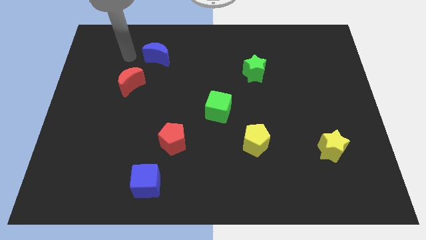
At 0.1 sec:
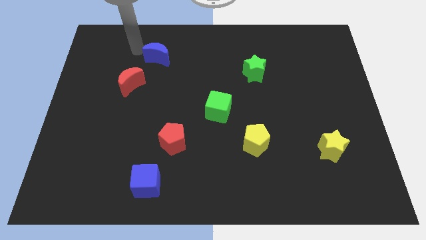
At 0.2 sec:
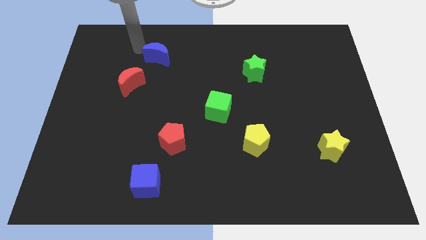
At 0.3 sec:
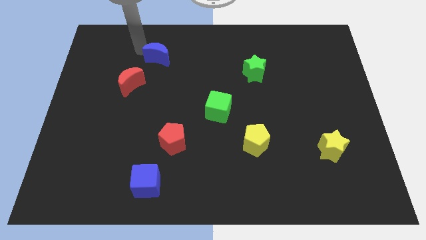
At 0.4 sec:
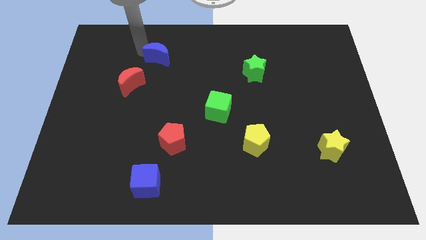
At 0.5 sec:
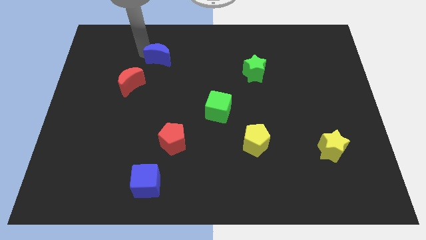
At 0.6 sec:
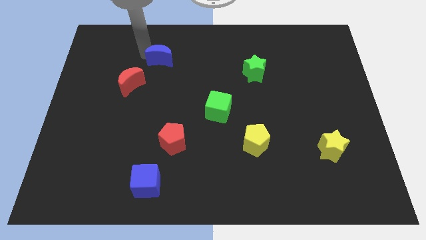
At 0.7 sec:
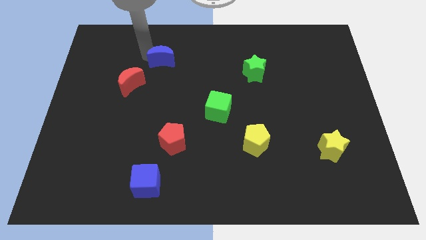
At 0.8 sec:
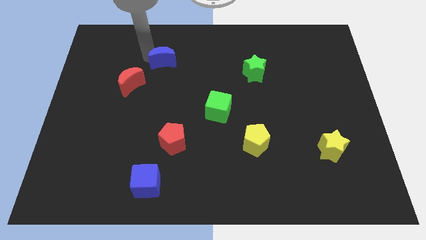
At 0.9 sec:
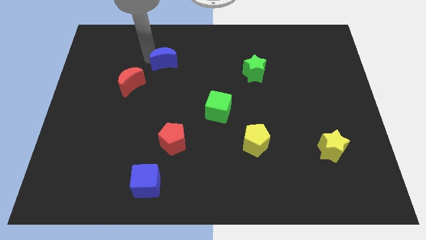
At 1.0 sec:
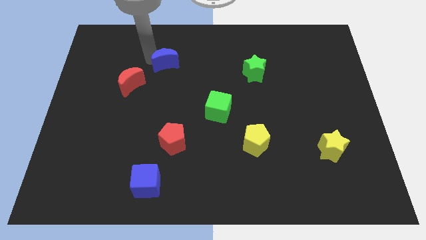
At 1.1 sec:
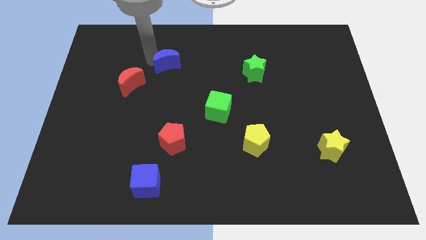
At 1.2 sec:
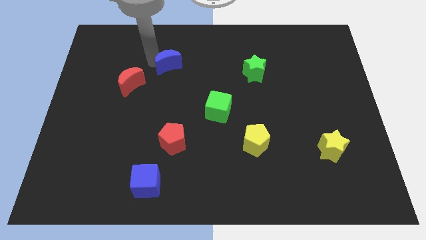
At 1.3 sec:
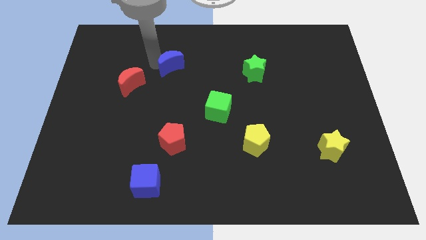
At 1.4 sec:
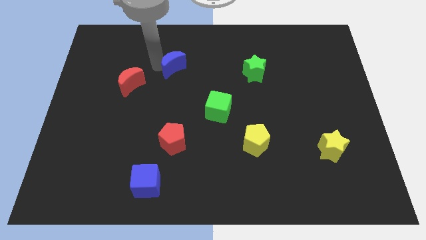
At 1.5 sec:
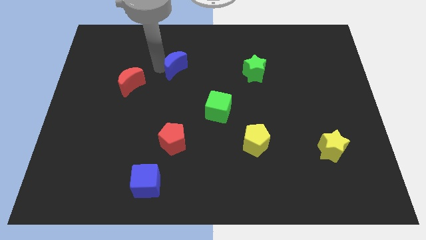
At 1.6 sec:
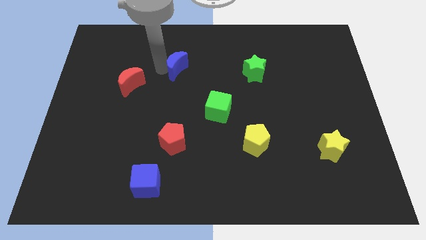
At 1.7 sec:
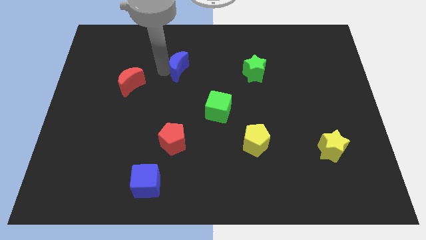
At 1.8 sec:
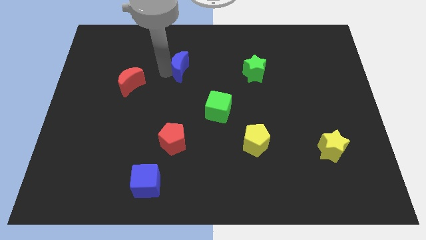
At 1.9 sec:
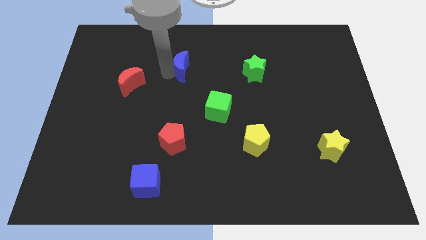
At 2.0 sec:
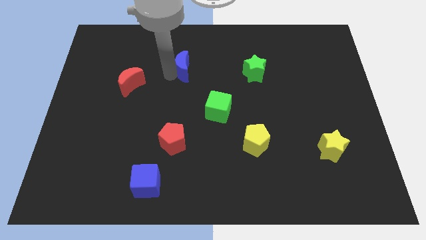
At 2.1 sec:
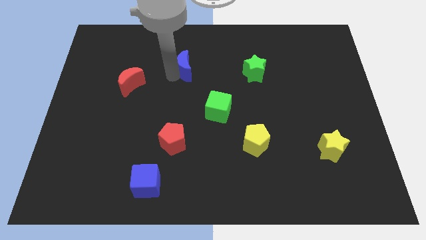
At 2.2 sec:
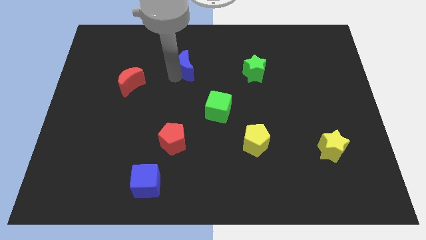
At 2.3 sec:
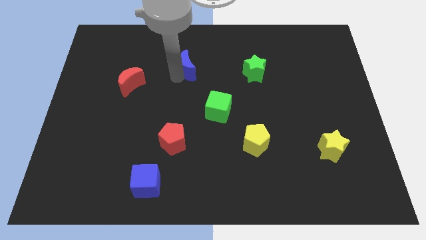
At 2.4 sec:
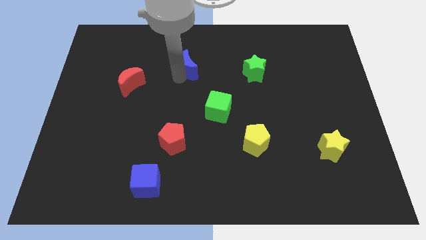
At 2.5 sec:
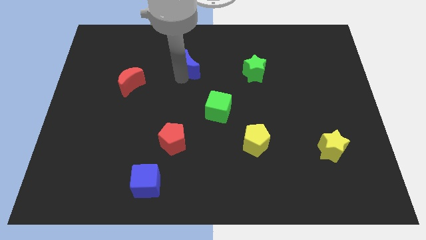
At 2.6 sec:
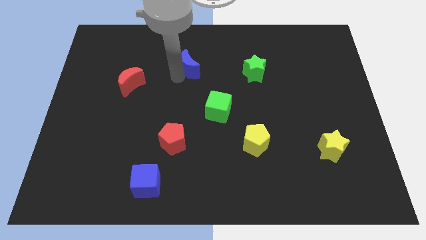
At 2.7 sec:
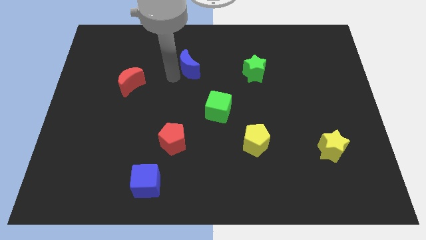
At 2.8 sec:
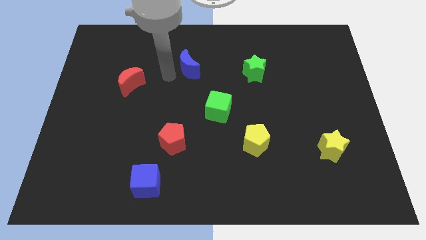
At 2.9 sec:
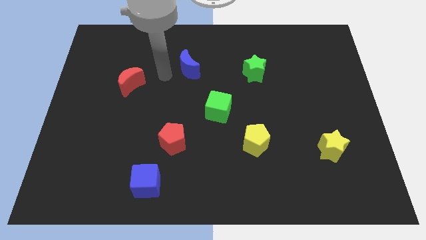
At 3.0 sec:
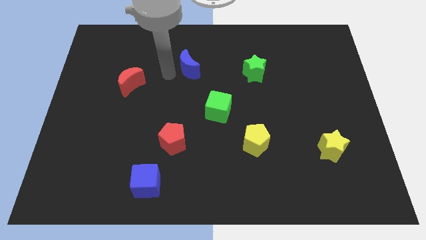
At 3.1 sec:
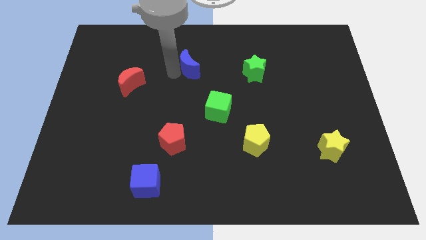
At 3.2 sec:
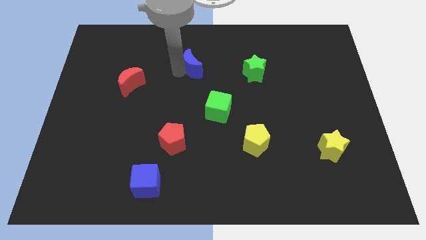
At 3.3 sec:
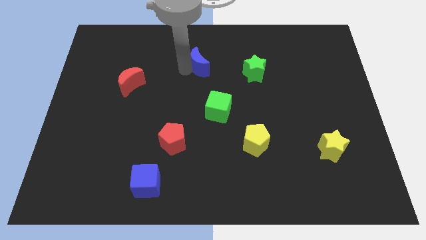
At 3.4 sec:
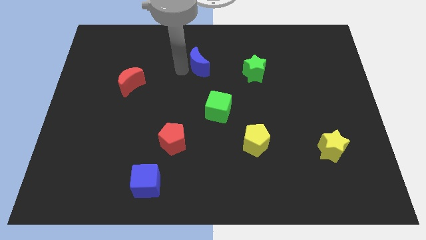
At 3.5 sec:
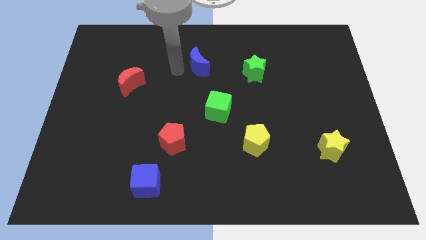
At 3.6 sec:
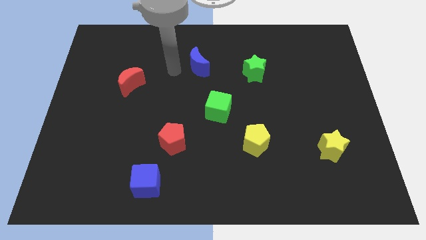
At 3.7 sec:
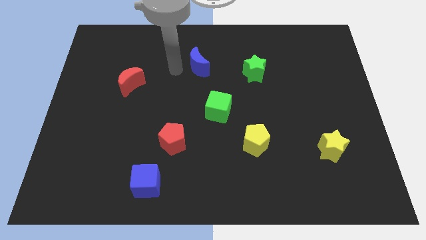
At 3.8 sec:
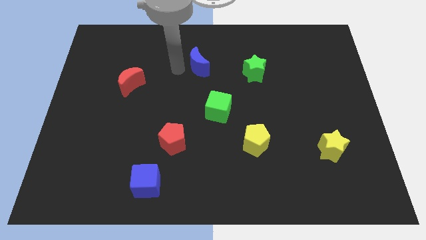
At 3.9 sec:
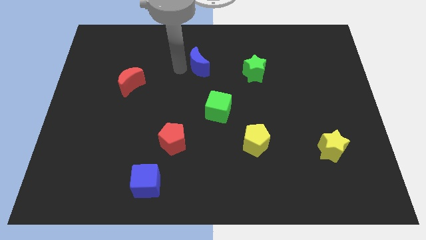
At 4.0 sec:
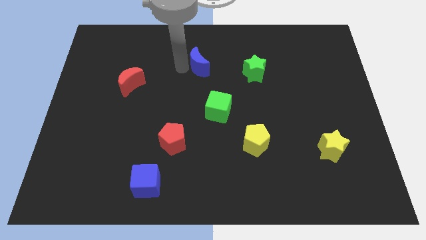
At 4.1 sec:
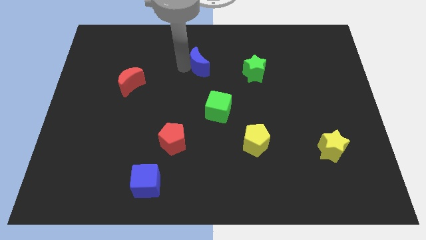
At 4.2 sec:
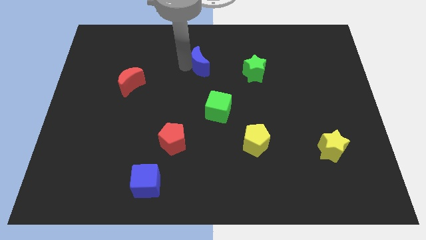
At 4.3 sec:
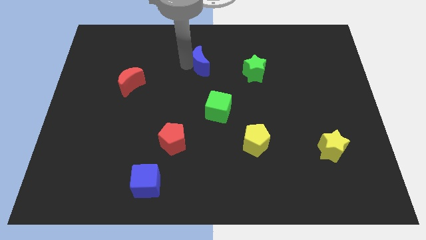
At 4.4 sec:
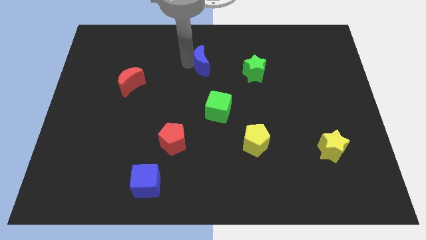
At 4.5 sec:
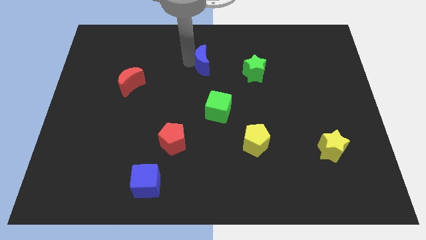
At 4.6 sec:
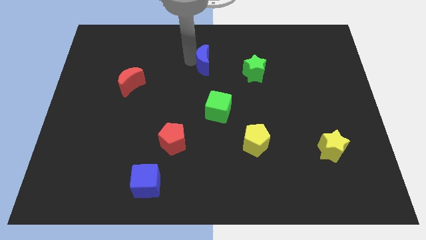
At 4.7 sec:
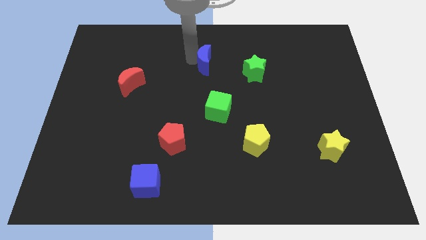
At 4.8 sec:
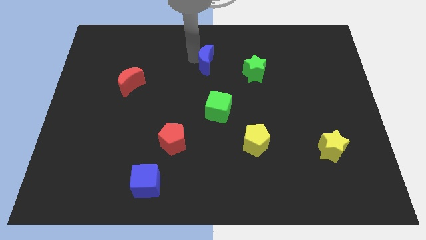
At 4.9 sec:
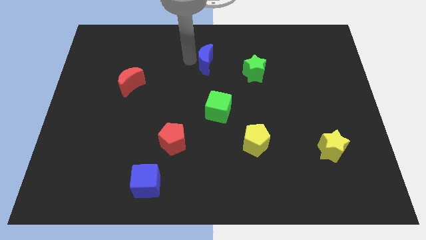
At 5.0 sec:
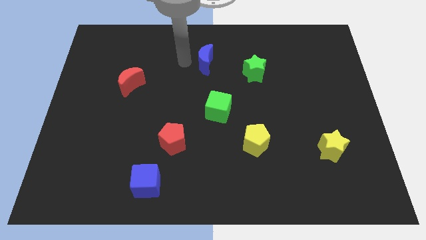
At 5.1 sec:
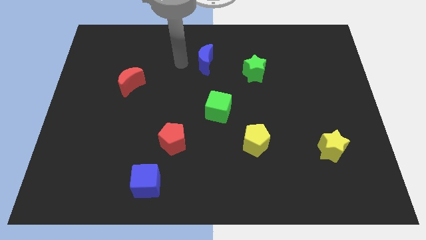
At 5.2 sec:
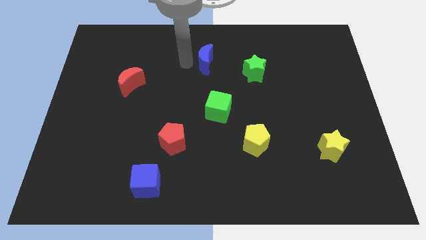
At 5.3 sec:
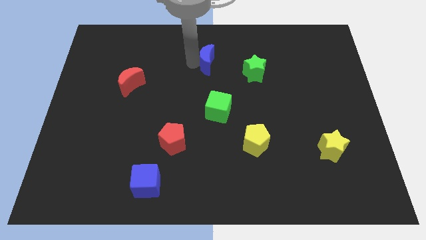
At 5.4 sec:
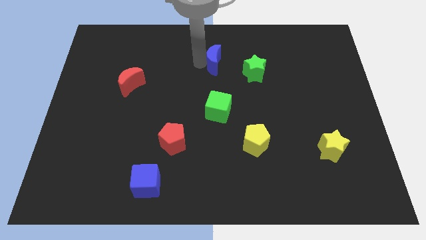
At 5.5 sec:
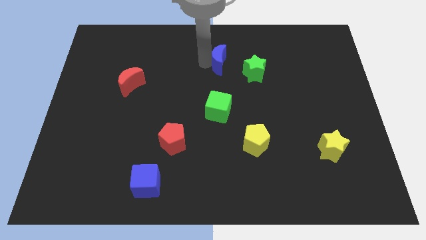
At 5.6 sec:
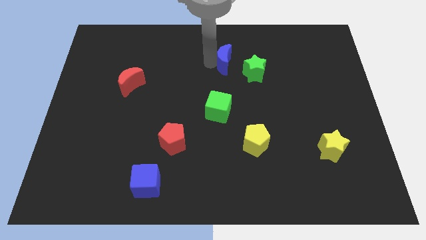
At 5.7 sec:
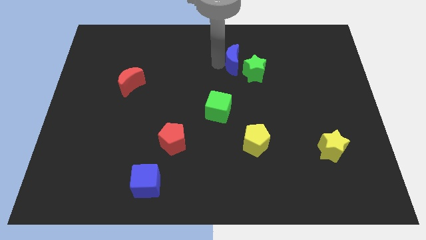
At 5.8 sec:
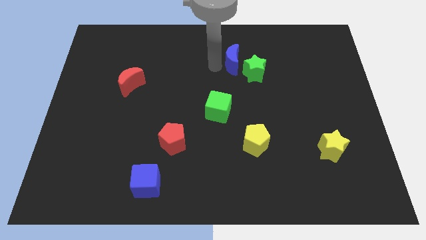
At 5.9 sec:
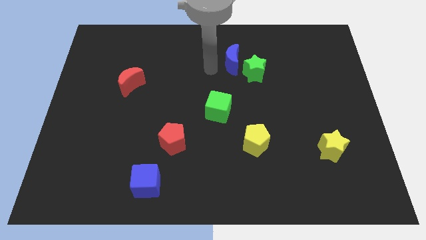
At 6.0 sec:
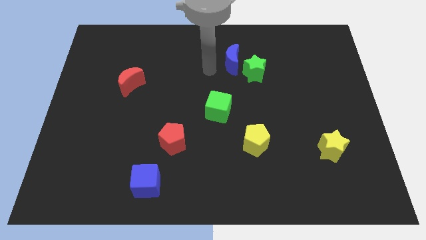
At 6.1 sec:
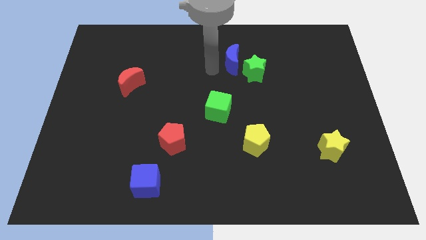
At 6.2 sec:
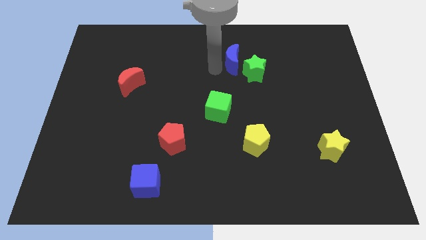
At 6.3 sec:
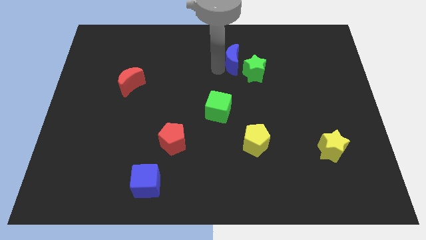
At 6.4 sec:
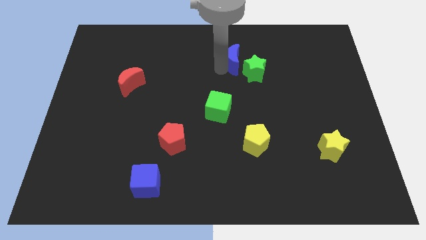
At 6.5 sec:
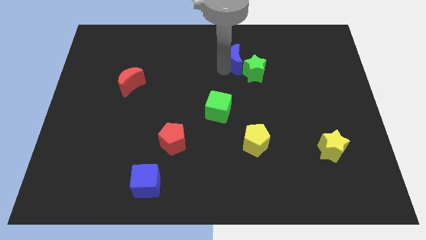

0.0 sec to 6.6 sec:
push the blue moon to the right

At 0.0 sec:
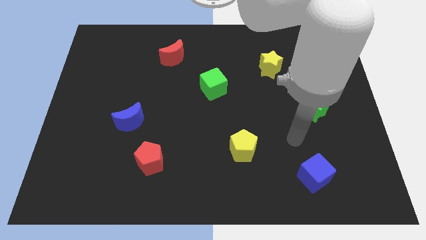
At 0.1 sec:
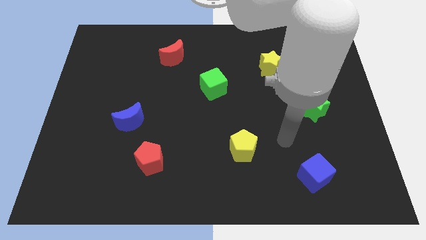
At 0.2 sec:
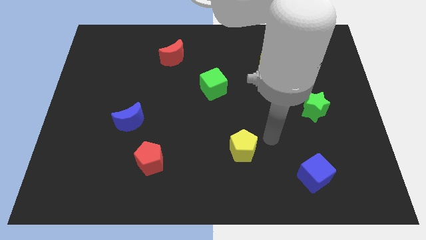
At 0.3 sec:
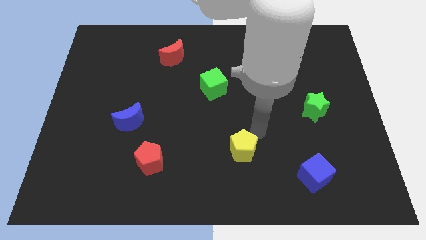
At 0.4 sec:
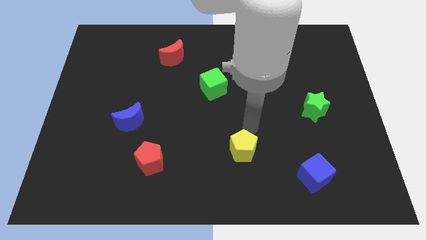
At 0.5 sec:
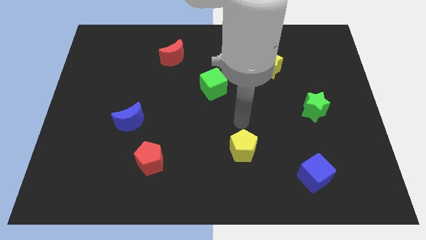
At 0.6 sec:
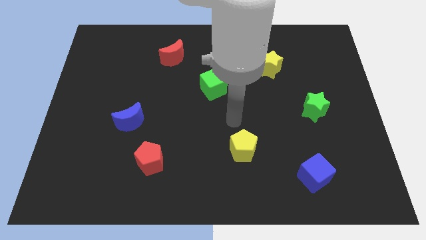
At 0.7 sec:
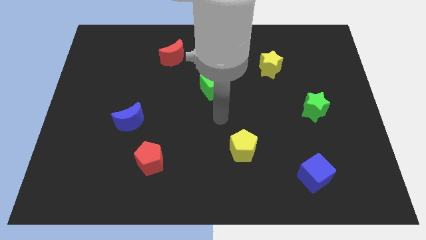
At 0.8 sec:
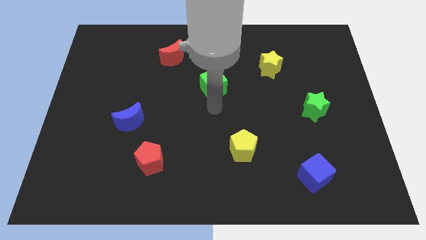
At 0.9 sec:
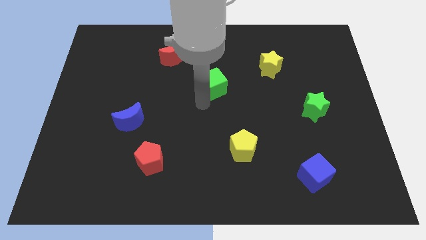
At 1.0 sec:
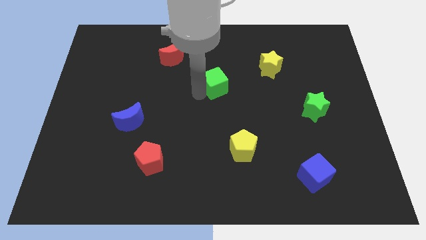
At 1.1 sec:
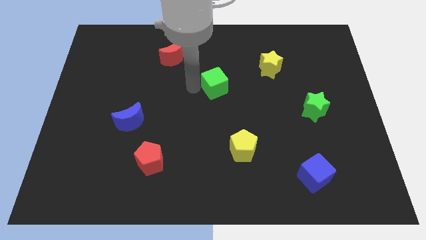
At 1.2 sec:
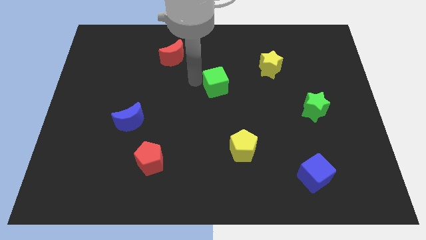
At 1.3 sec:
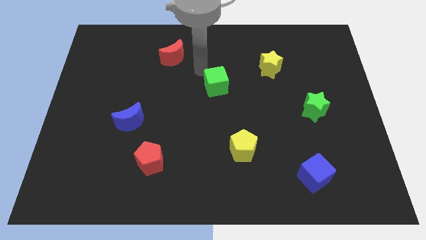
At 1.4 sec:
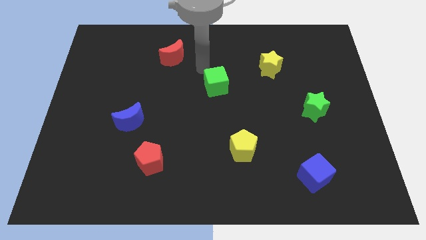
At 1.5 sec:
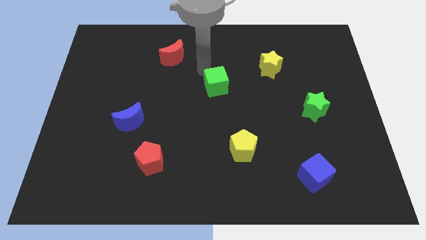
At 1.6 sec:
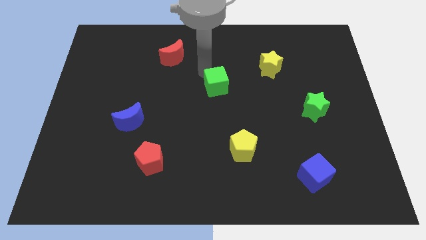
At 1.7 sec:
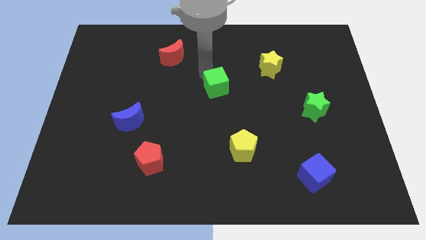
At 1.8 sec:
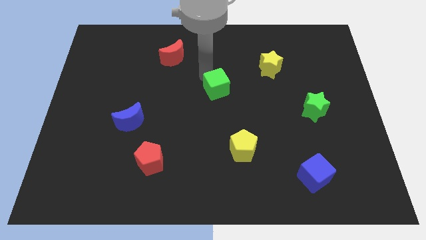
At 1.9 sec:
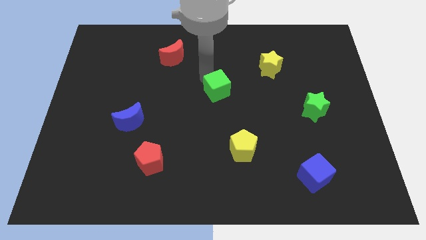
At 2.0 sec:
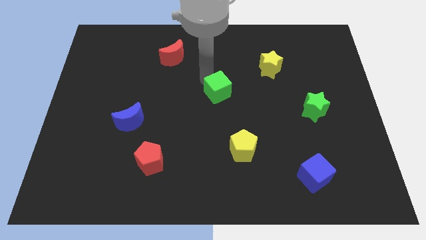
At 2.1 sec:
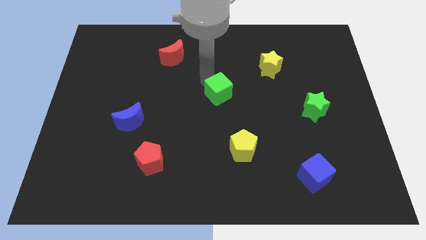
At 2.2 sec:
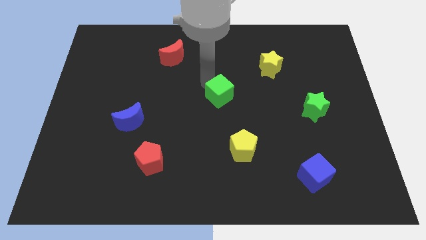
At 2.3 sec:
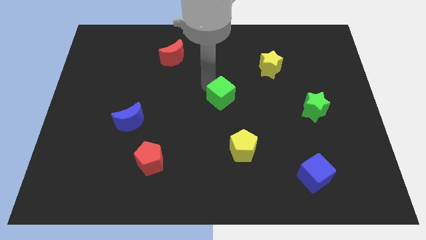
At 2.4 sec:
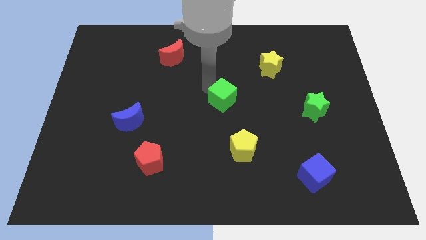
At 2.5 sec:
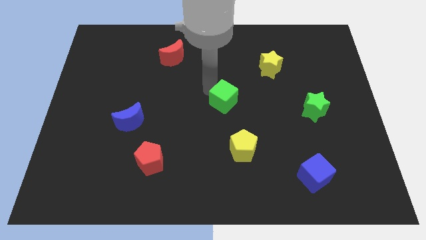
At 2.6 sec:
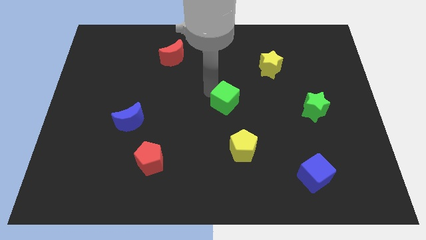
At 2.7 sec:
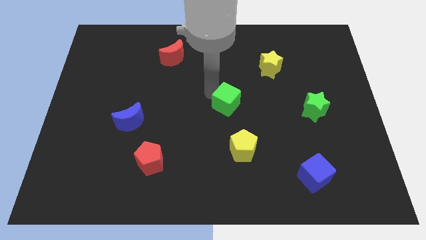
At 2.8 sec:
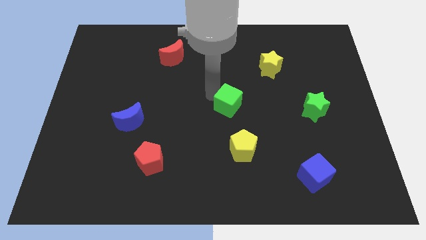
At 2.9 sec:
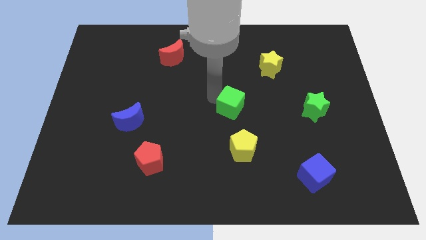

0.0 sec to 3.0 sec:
slide the green cube slightly down and to the right
